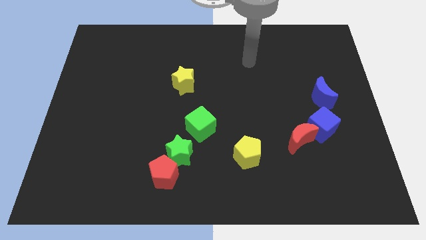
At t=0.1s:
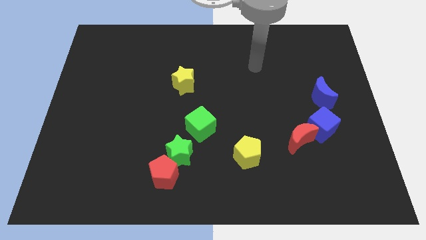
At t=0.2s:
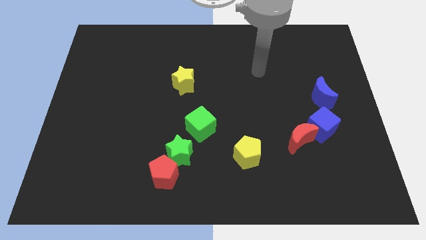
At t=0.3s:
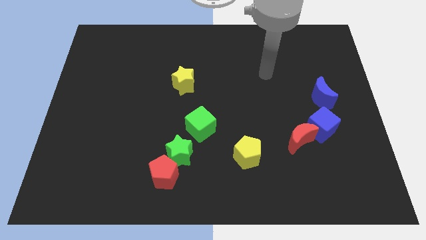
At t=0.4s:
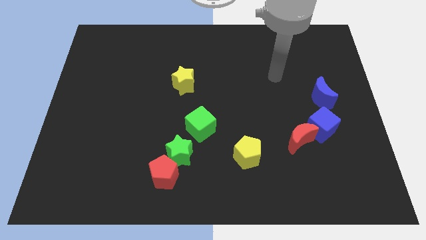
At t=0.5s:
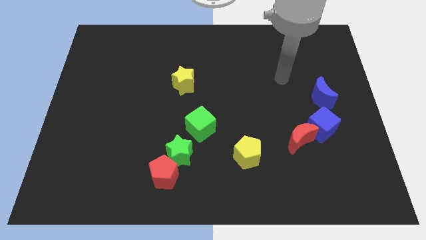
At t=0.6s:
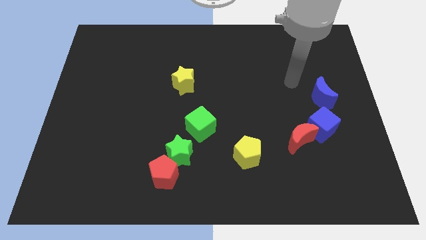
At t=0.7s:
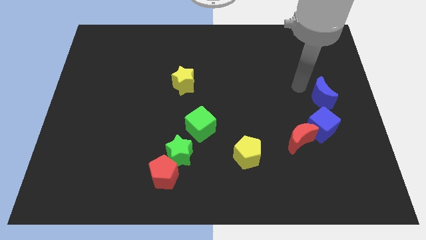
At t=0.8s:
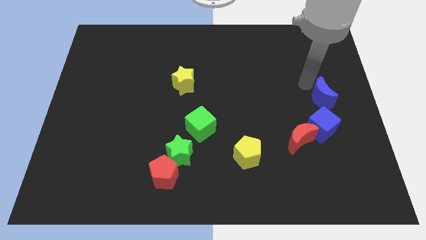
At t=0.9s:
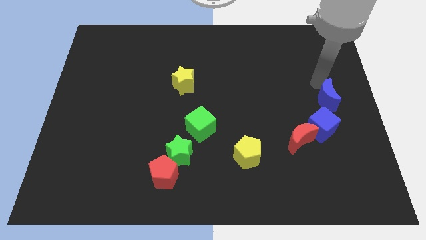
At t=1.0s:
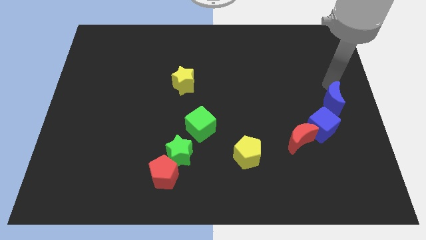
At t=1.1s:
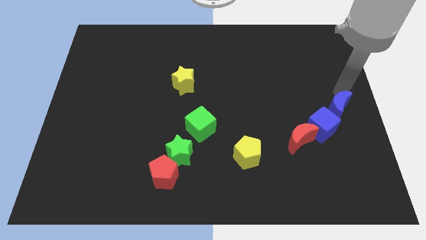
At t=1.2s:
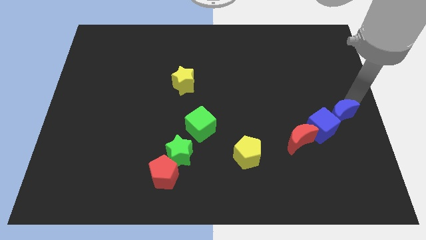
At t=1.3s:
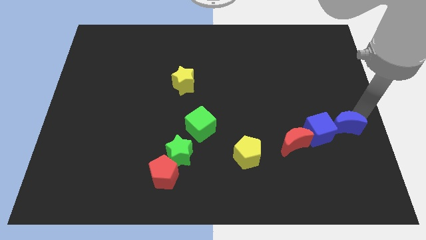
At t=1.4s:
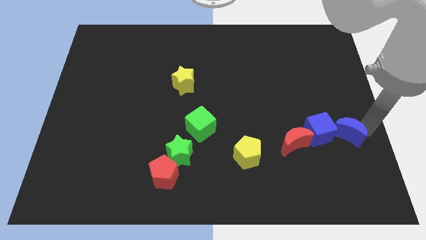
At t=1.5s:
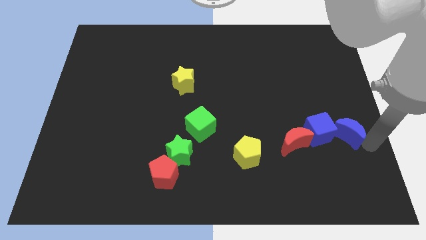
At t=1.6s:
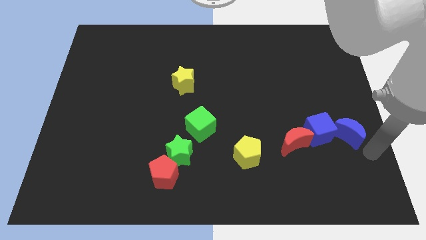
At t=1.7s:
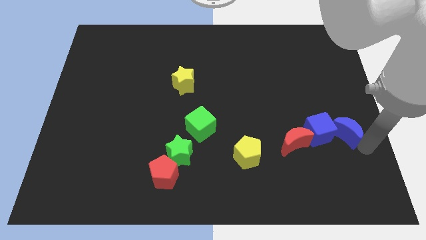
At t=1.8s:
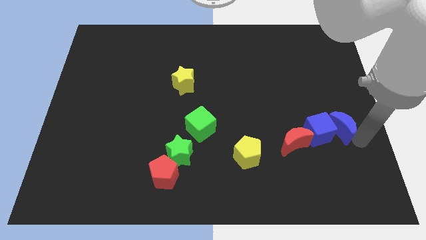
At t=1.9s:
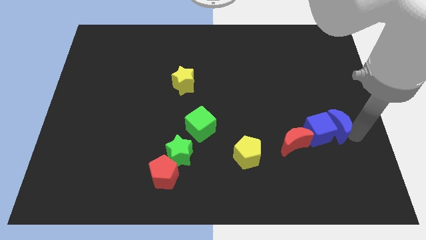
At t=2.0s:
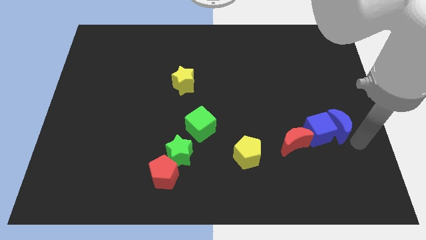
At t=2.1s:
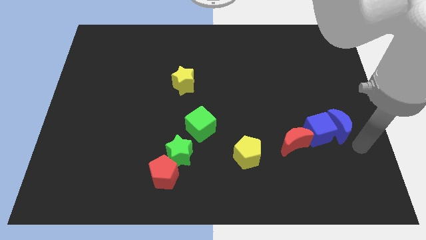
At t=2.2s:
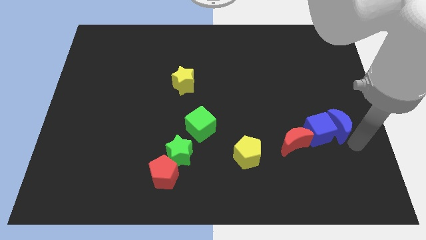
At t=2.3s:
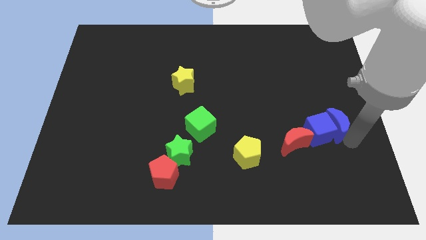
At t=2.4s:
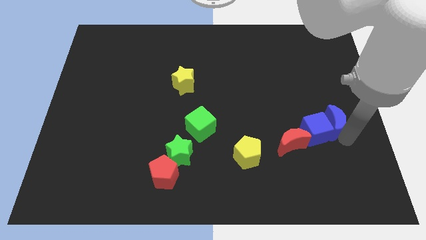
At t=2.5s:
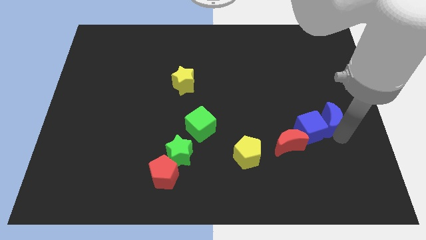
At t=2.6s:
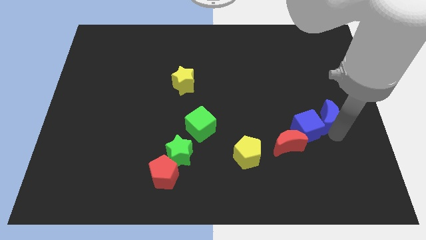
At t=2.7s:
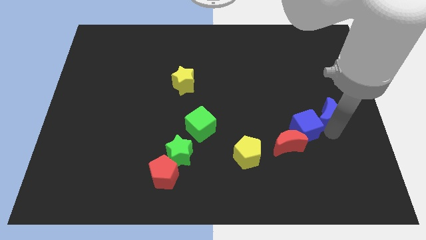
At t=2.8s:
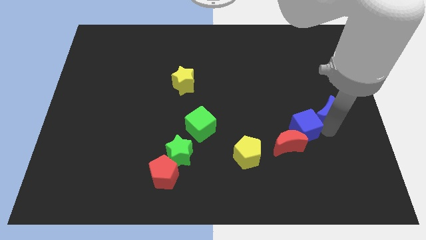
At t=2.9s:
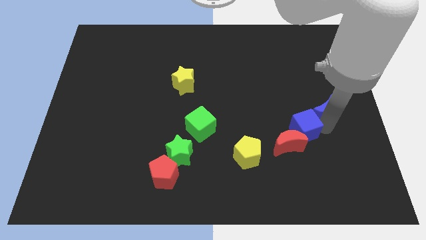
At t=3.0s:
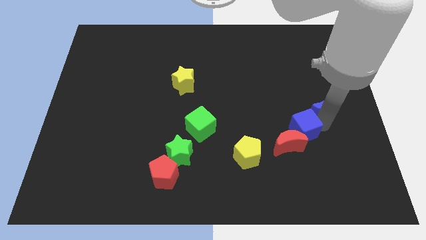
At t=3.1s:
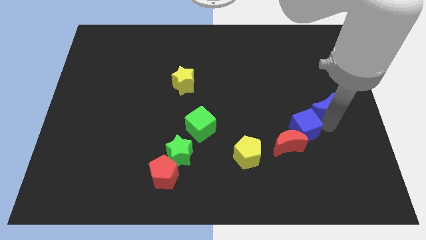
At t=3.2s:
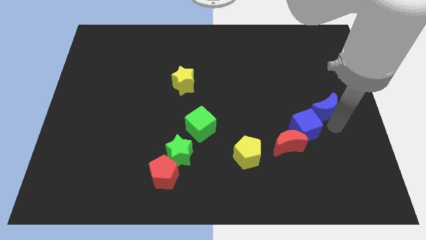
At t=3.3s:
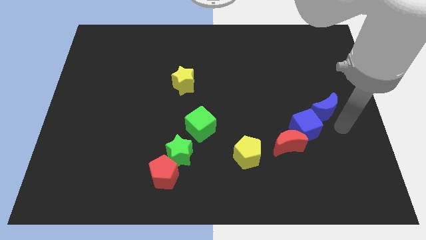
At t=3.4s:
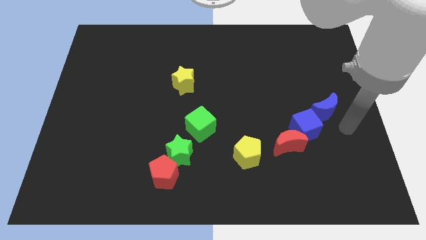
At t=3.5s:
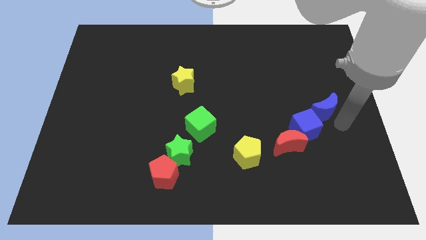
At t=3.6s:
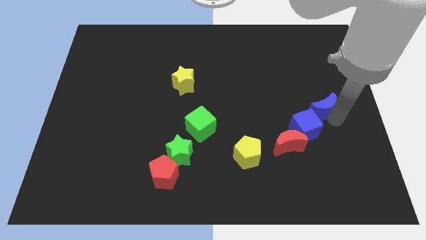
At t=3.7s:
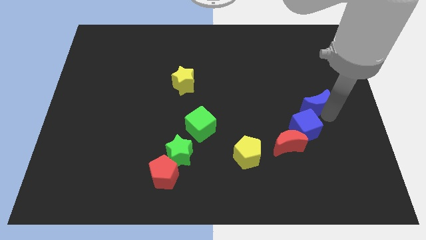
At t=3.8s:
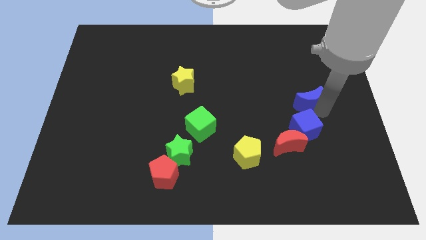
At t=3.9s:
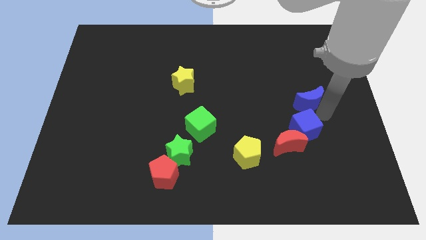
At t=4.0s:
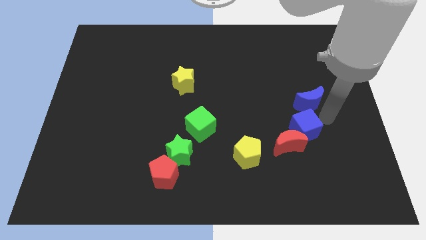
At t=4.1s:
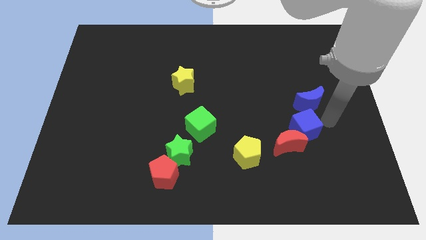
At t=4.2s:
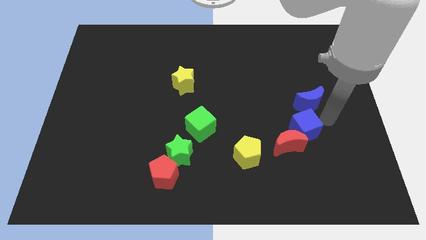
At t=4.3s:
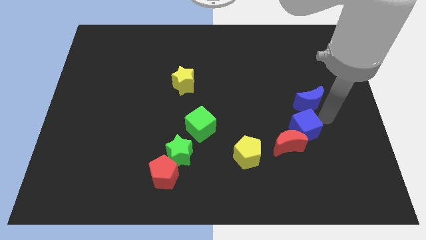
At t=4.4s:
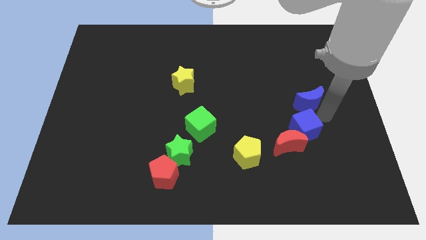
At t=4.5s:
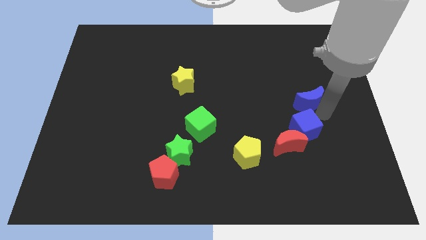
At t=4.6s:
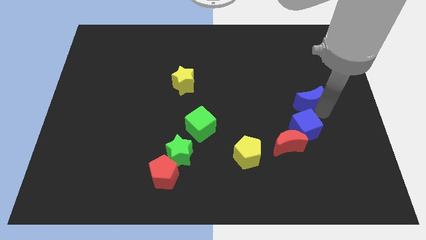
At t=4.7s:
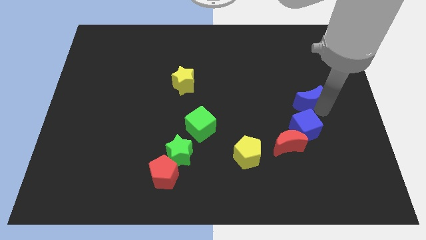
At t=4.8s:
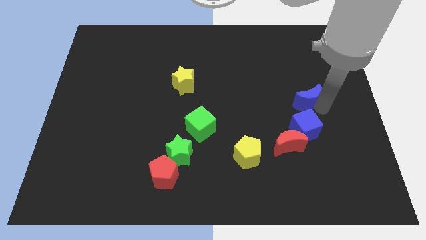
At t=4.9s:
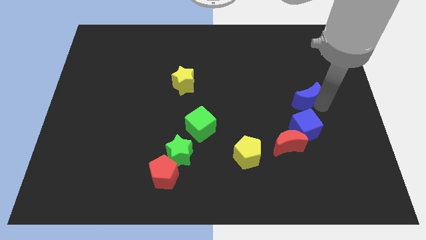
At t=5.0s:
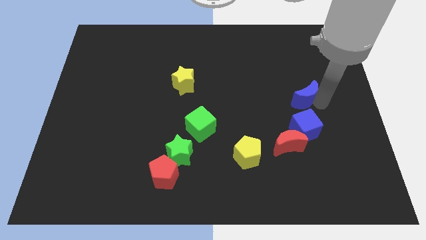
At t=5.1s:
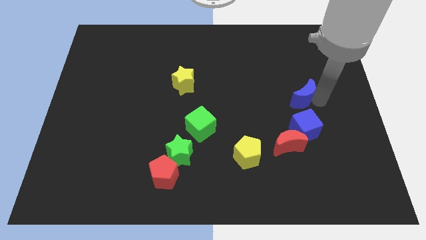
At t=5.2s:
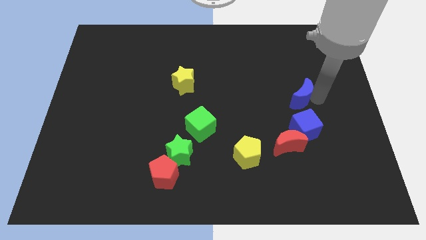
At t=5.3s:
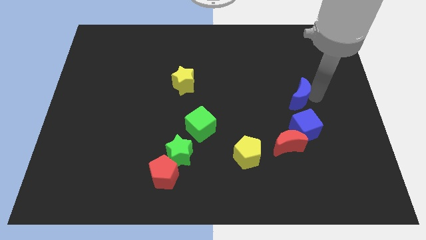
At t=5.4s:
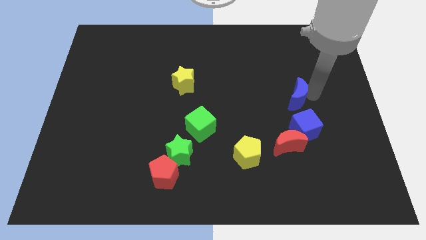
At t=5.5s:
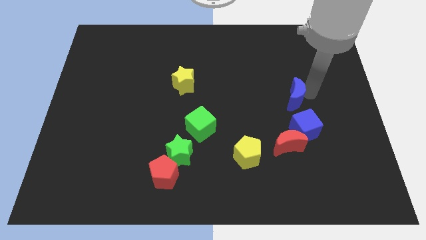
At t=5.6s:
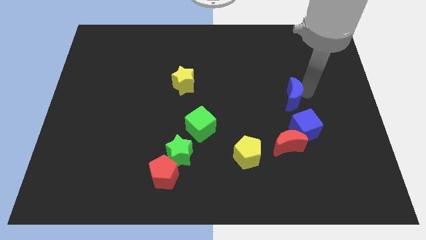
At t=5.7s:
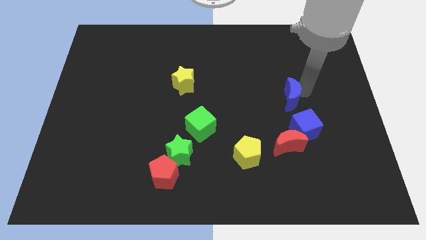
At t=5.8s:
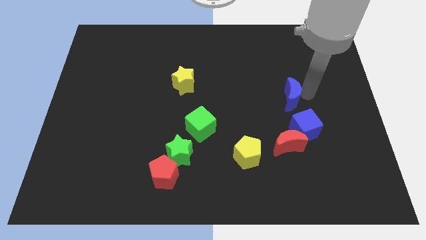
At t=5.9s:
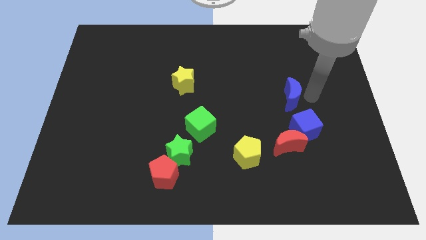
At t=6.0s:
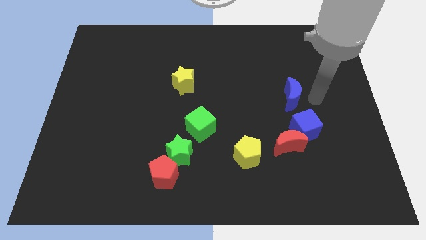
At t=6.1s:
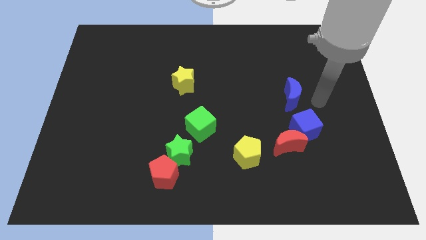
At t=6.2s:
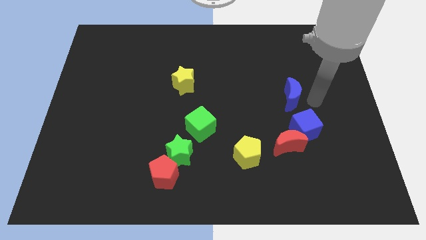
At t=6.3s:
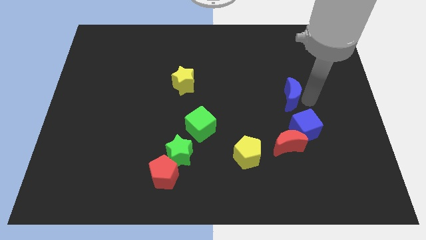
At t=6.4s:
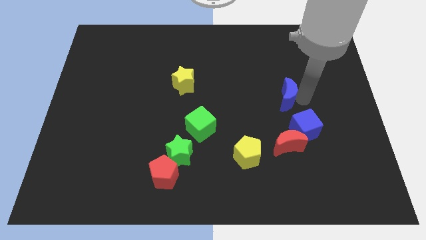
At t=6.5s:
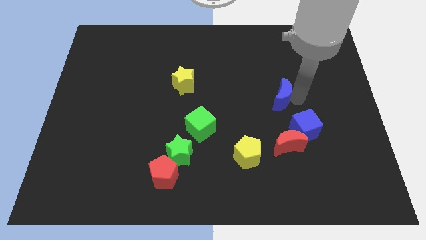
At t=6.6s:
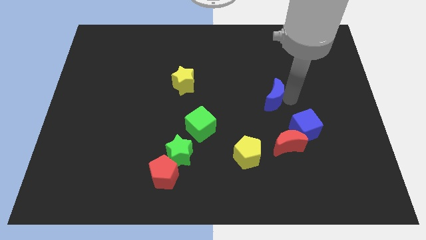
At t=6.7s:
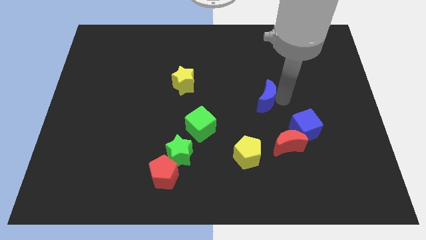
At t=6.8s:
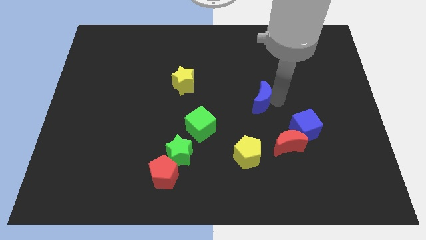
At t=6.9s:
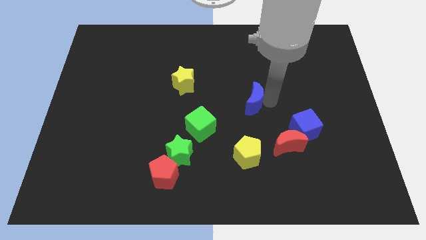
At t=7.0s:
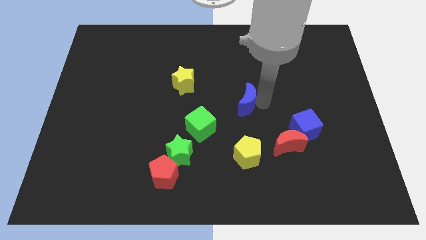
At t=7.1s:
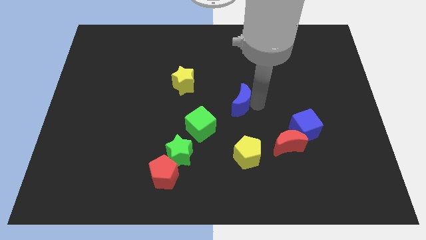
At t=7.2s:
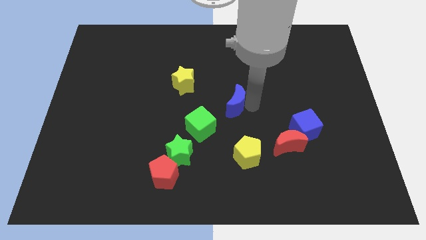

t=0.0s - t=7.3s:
push the blue moon left

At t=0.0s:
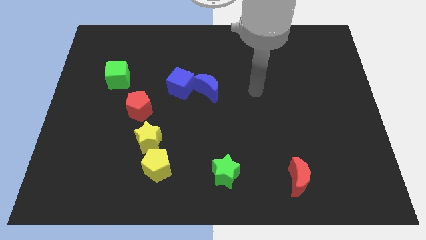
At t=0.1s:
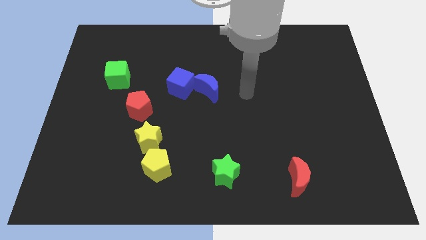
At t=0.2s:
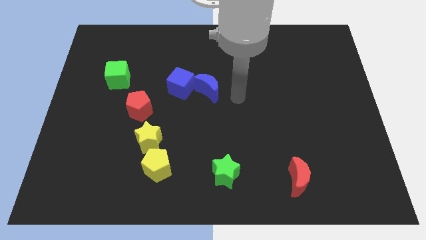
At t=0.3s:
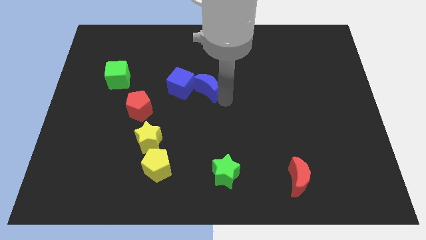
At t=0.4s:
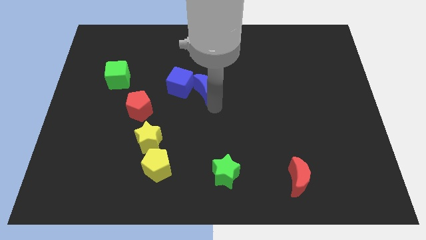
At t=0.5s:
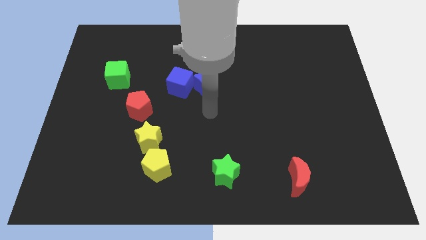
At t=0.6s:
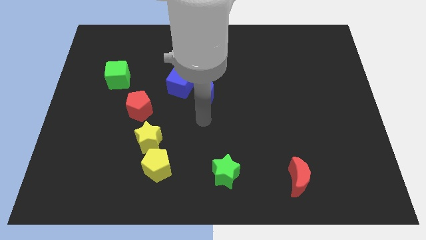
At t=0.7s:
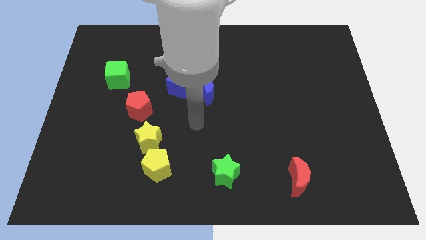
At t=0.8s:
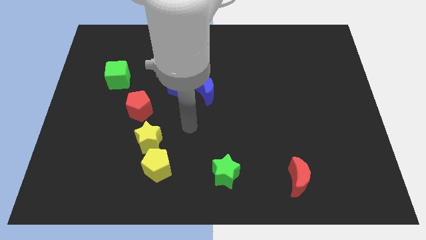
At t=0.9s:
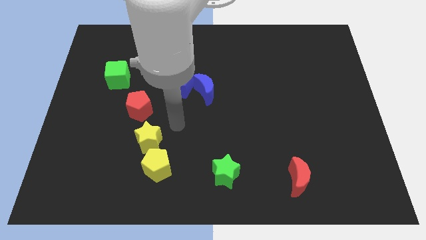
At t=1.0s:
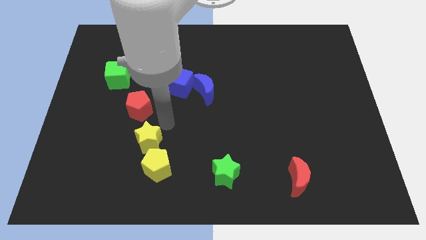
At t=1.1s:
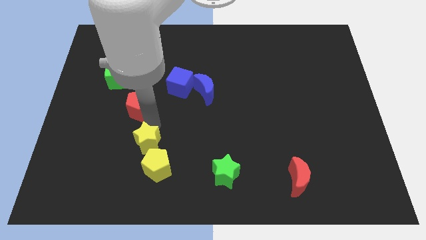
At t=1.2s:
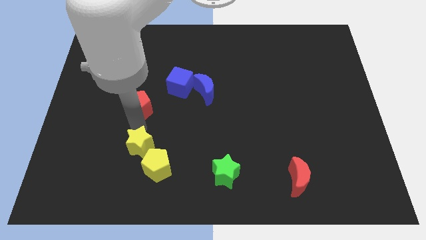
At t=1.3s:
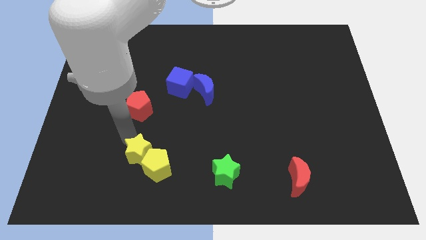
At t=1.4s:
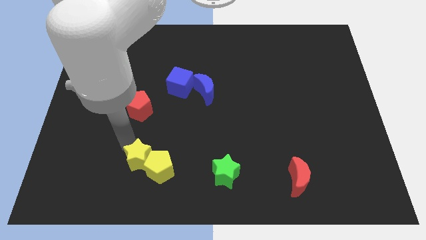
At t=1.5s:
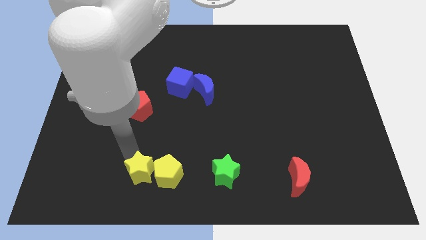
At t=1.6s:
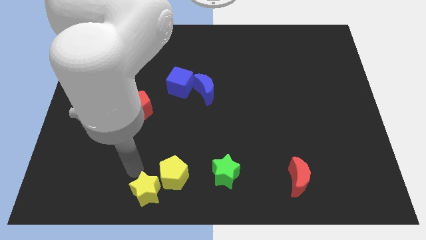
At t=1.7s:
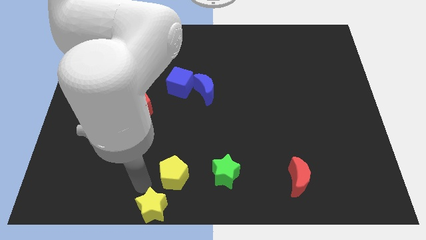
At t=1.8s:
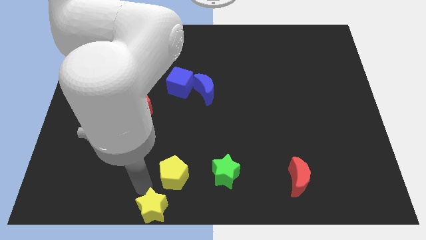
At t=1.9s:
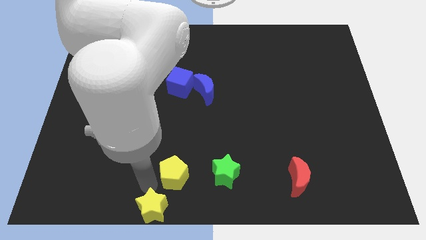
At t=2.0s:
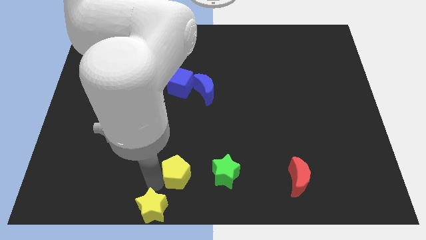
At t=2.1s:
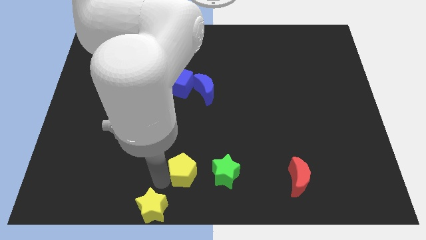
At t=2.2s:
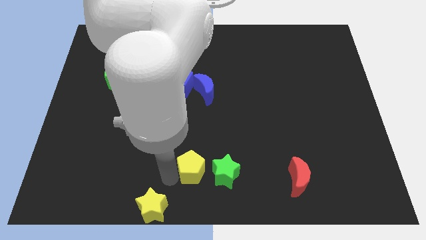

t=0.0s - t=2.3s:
slide the yellow pentagon right a bit
